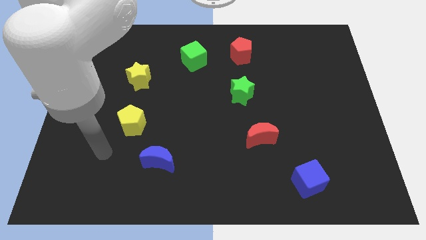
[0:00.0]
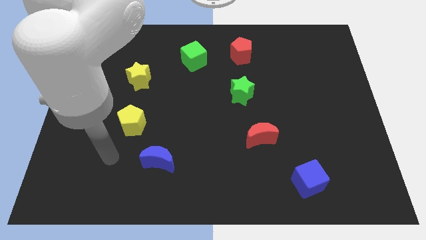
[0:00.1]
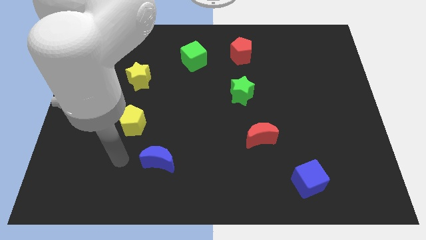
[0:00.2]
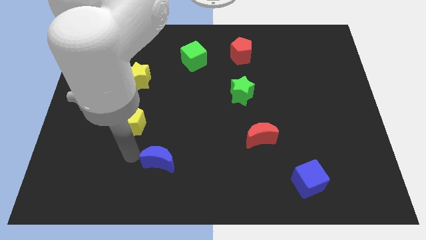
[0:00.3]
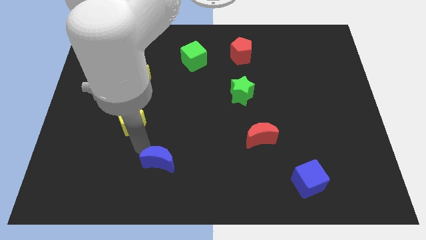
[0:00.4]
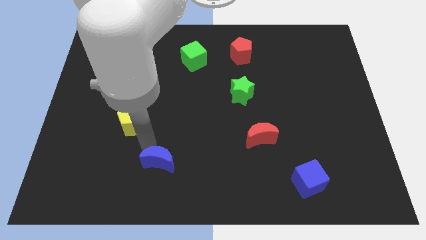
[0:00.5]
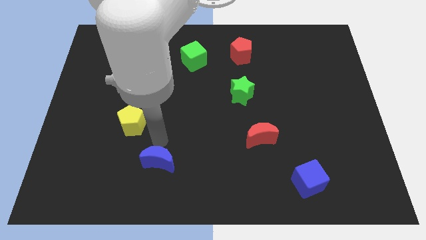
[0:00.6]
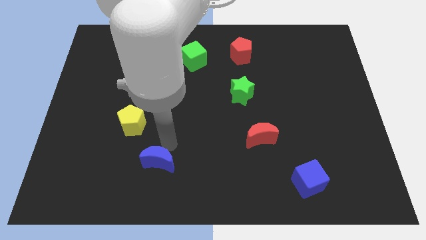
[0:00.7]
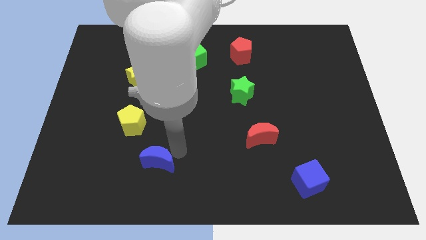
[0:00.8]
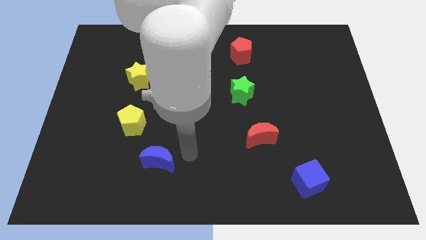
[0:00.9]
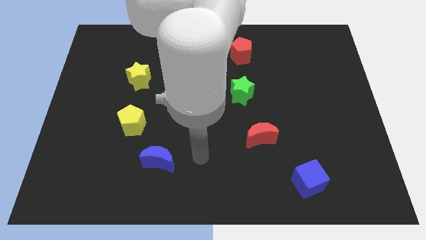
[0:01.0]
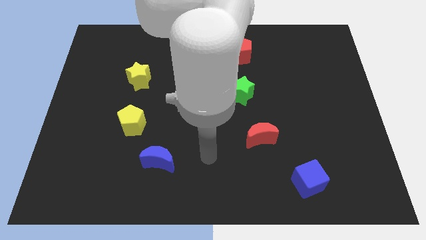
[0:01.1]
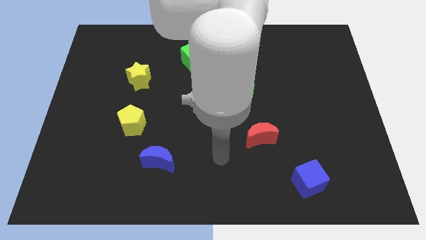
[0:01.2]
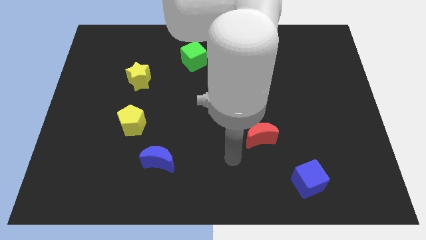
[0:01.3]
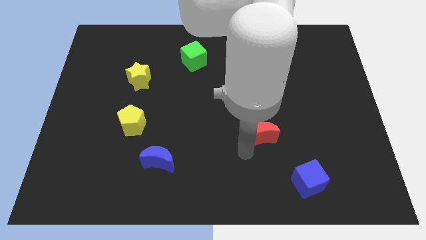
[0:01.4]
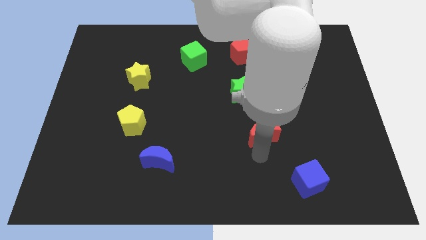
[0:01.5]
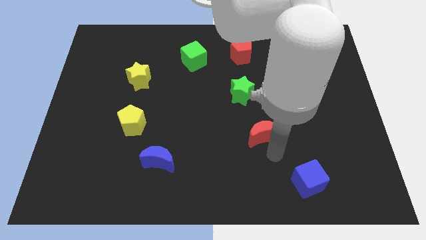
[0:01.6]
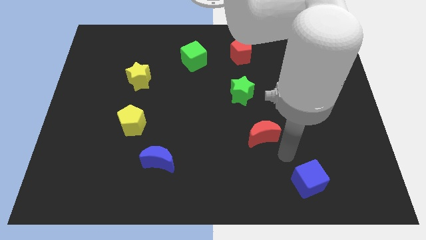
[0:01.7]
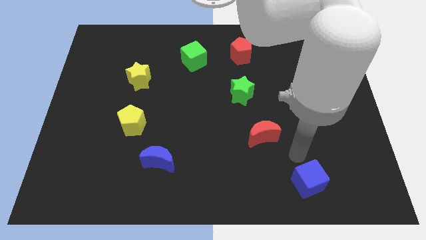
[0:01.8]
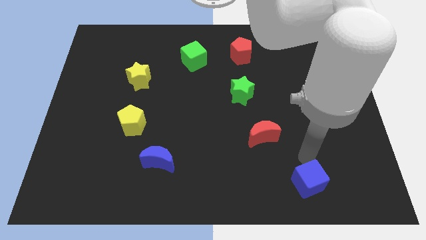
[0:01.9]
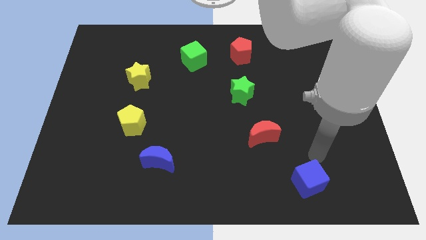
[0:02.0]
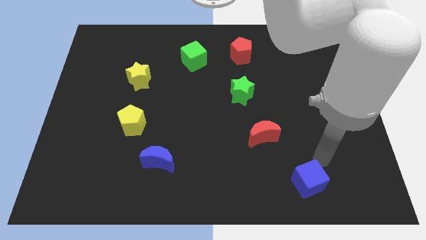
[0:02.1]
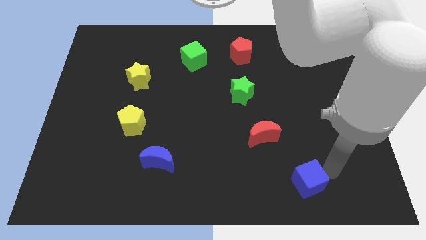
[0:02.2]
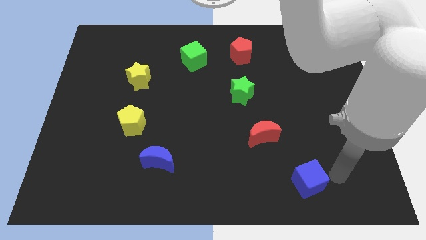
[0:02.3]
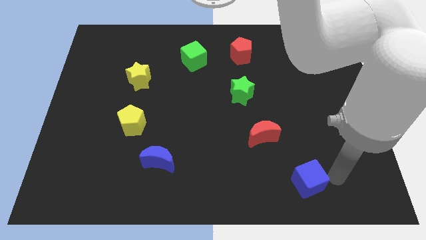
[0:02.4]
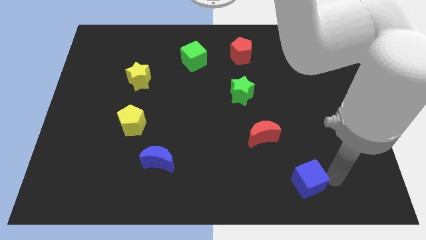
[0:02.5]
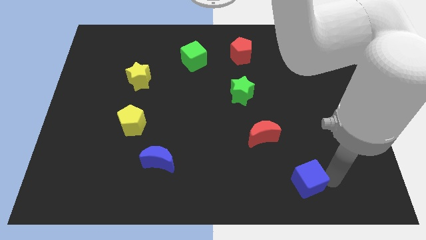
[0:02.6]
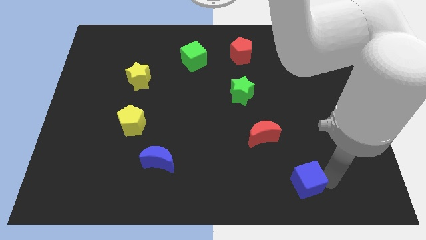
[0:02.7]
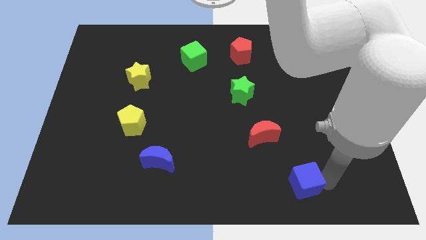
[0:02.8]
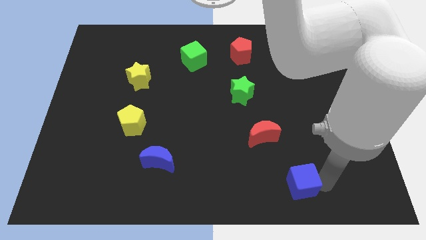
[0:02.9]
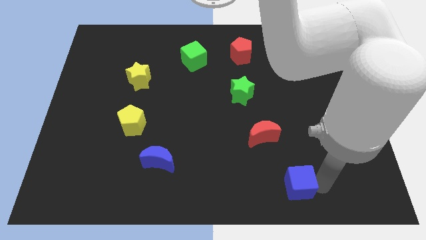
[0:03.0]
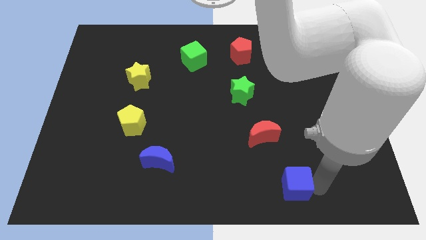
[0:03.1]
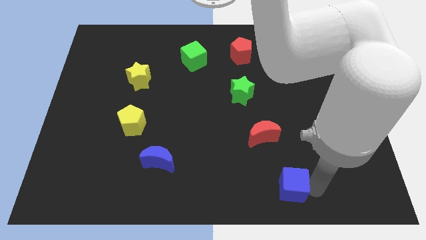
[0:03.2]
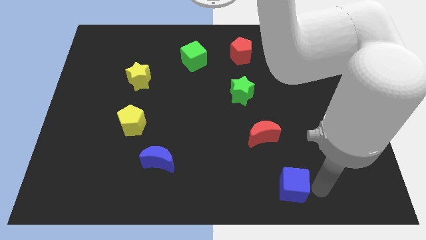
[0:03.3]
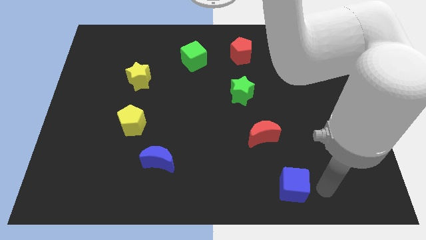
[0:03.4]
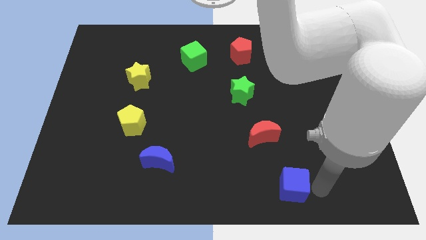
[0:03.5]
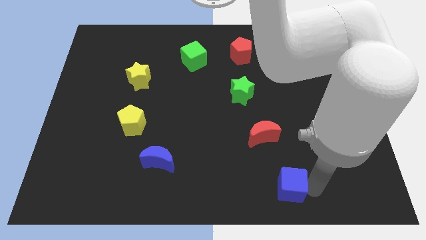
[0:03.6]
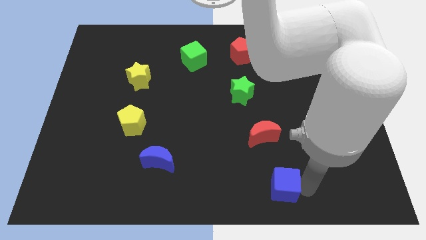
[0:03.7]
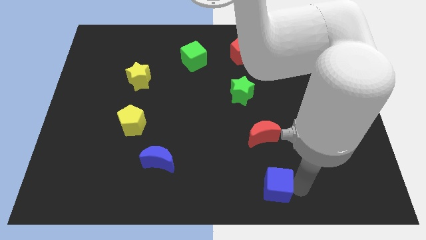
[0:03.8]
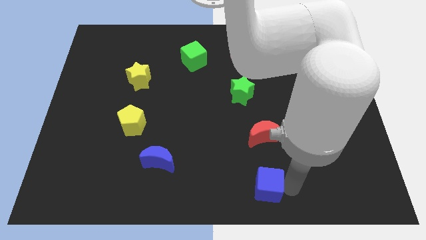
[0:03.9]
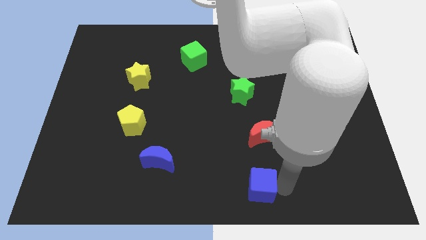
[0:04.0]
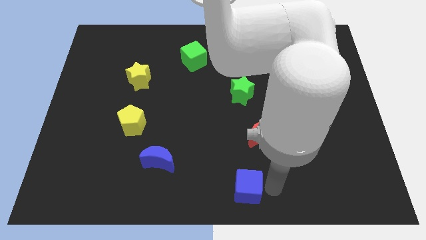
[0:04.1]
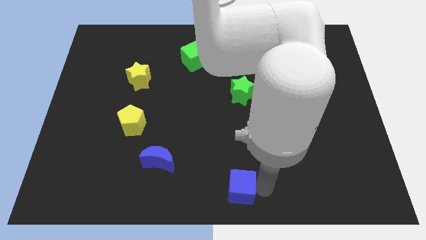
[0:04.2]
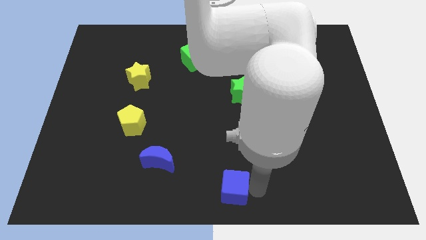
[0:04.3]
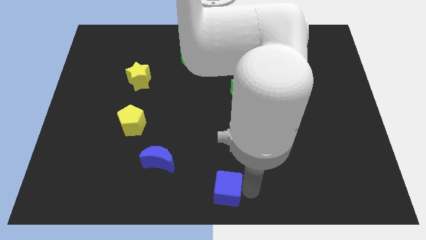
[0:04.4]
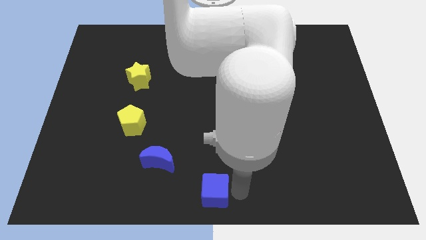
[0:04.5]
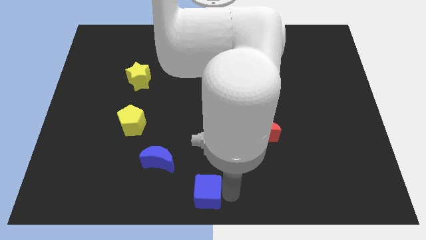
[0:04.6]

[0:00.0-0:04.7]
push the blue cube left

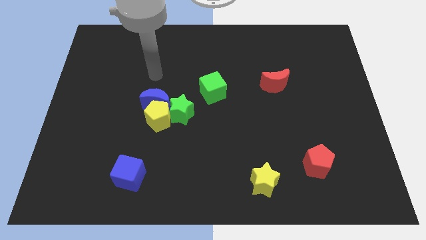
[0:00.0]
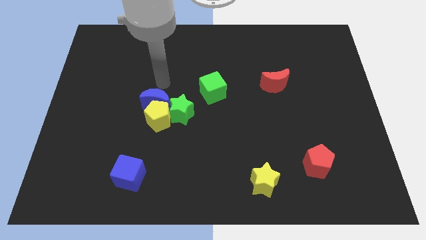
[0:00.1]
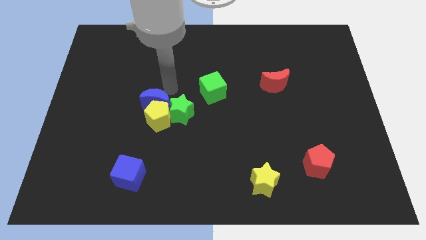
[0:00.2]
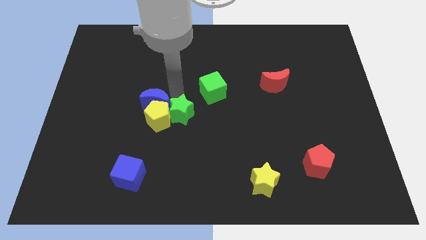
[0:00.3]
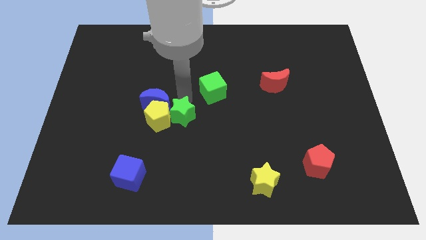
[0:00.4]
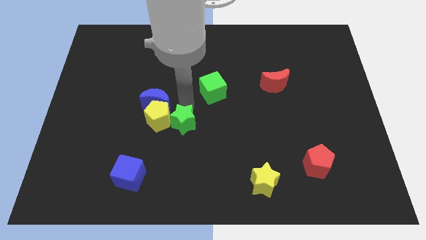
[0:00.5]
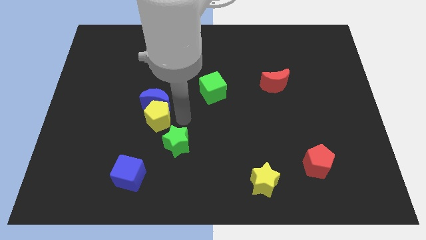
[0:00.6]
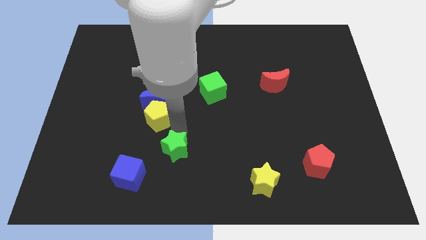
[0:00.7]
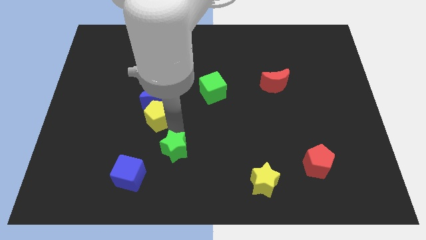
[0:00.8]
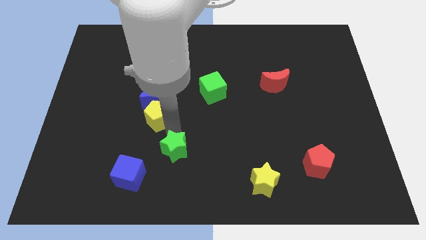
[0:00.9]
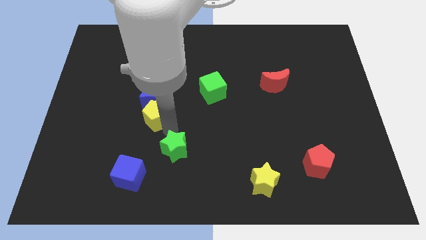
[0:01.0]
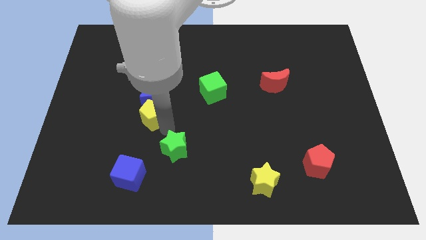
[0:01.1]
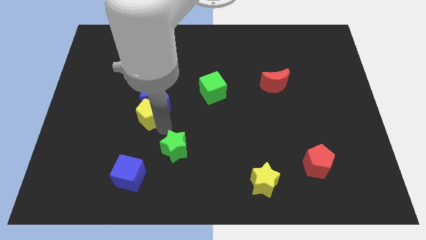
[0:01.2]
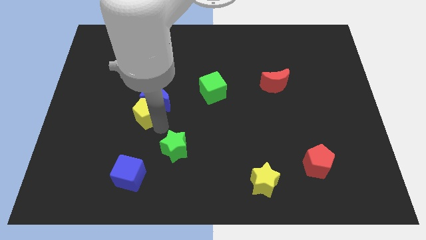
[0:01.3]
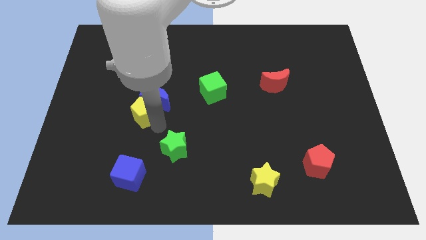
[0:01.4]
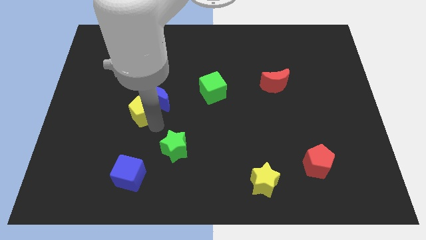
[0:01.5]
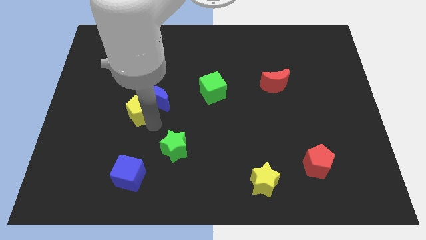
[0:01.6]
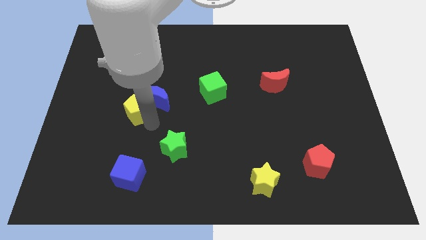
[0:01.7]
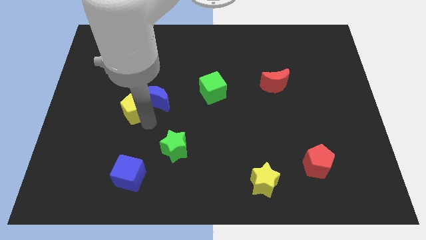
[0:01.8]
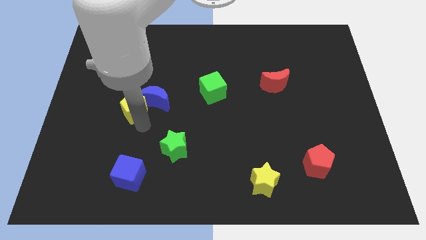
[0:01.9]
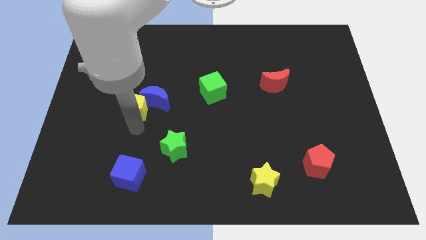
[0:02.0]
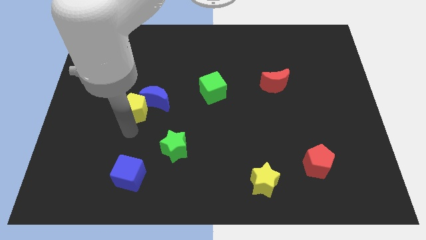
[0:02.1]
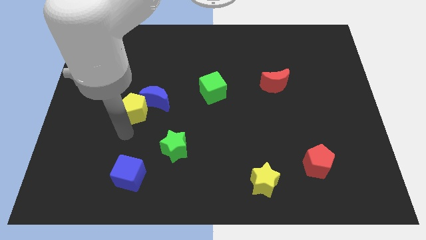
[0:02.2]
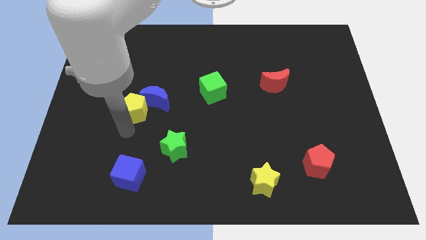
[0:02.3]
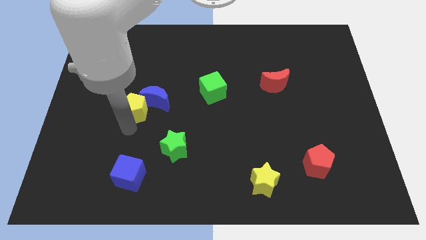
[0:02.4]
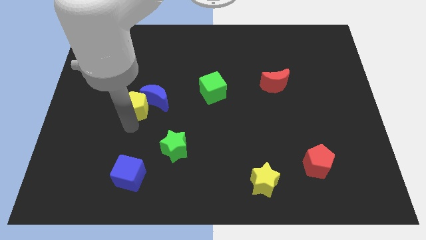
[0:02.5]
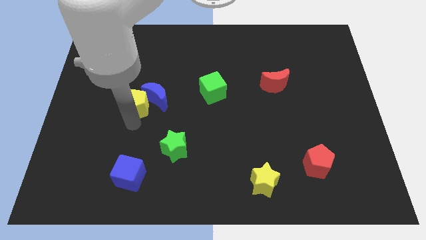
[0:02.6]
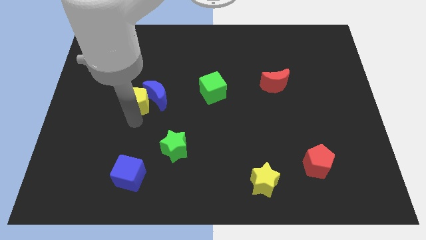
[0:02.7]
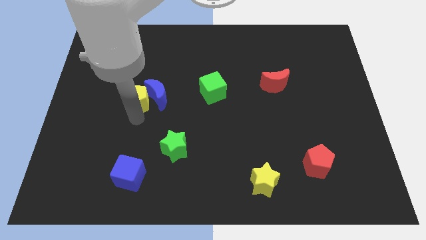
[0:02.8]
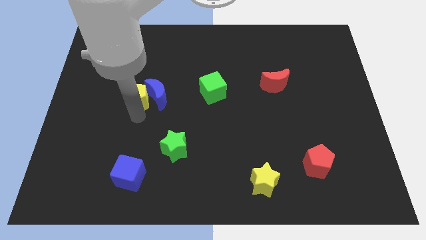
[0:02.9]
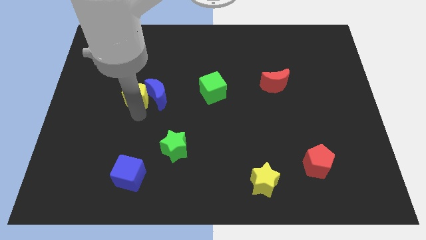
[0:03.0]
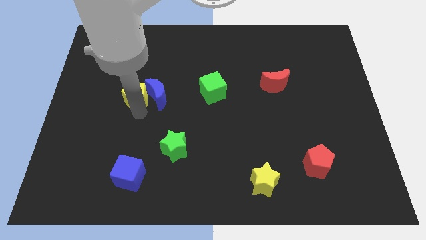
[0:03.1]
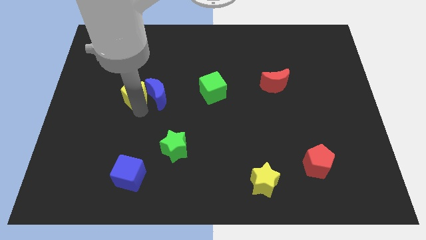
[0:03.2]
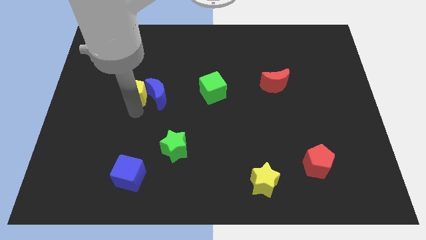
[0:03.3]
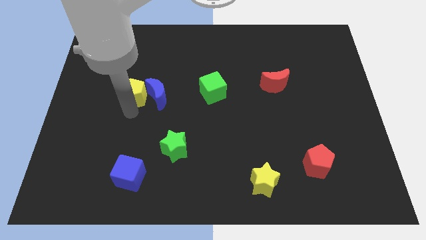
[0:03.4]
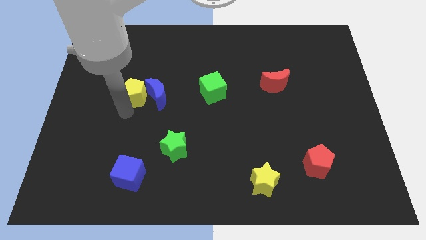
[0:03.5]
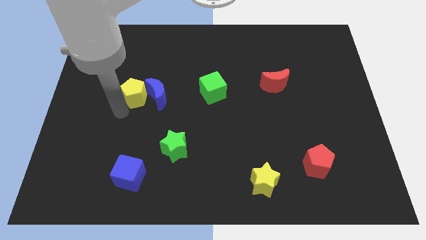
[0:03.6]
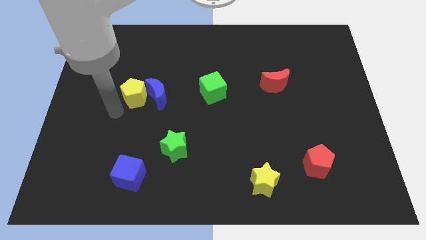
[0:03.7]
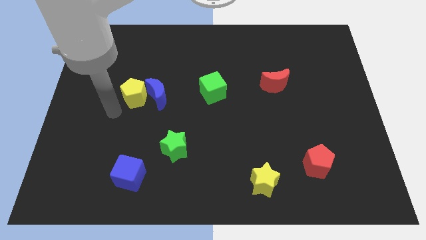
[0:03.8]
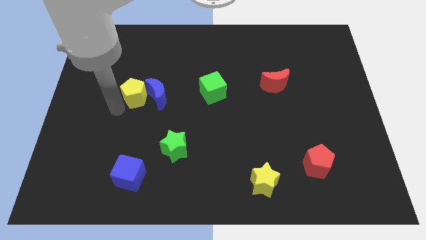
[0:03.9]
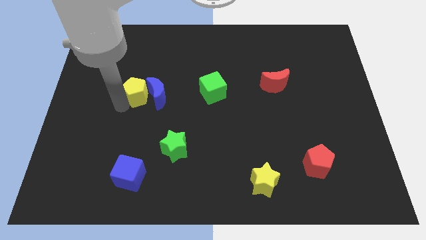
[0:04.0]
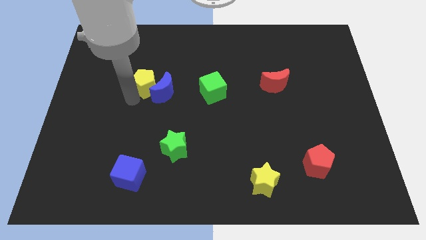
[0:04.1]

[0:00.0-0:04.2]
slide the yellow pentagon somewhat upwards
